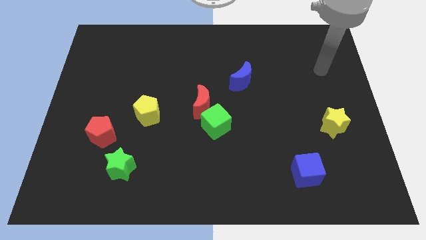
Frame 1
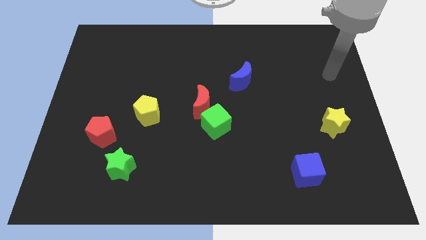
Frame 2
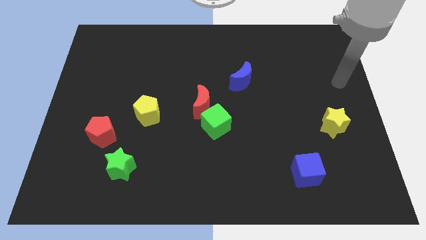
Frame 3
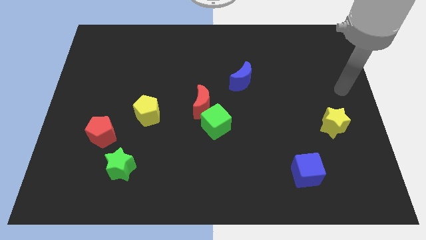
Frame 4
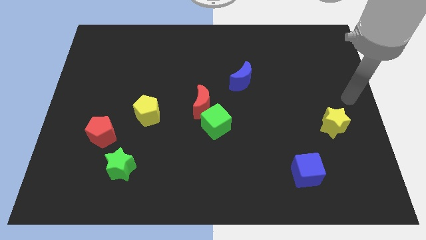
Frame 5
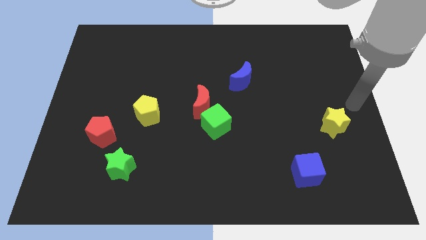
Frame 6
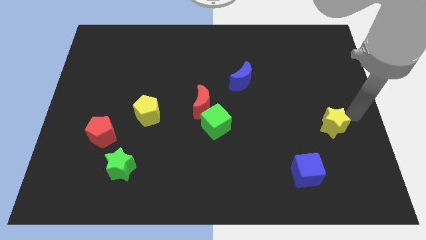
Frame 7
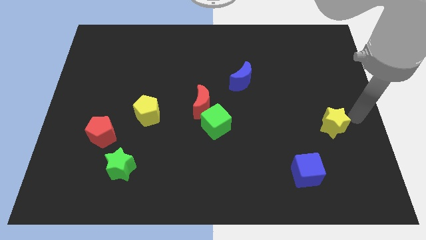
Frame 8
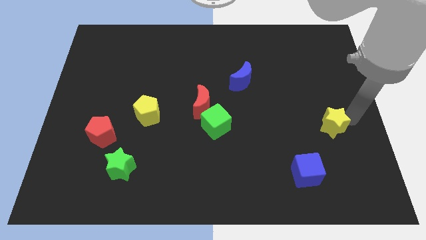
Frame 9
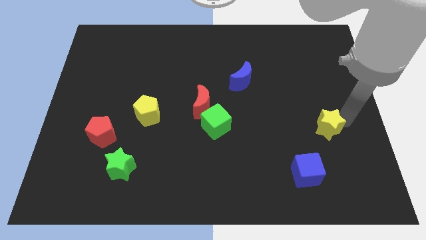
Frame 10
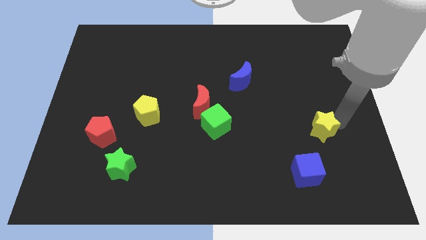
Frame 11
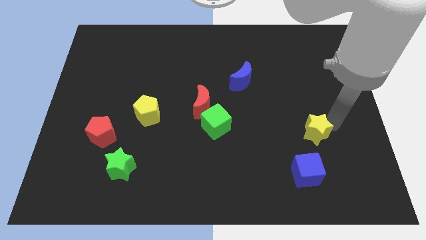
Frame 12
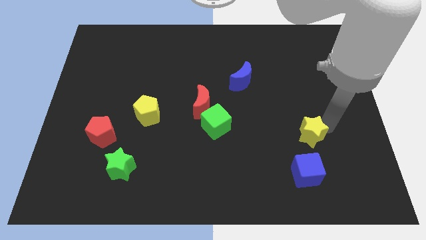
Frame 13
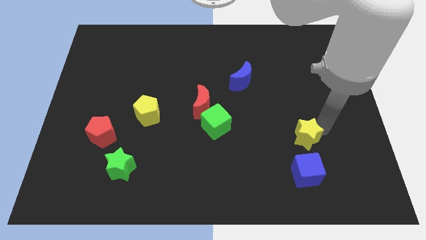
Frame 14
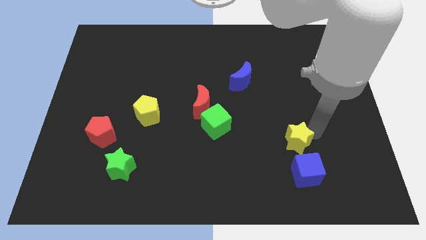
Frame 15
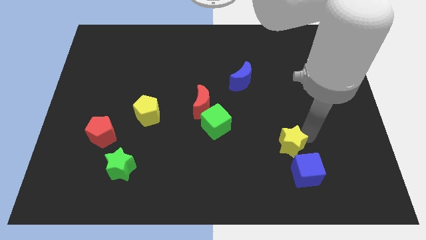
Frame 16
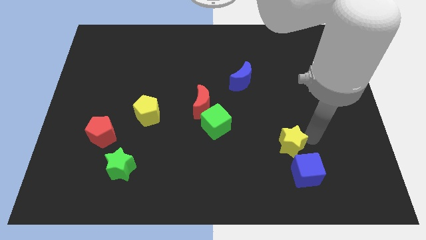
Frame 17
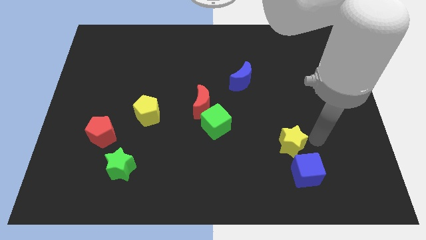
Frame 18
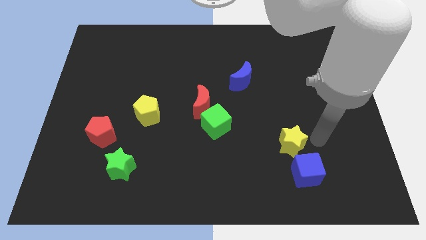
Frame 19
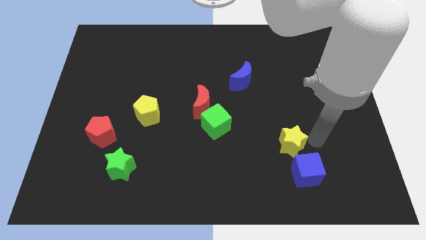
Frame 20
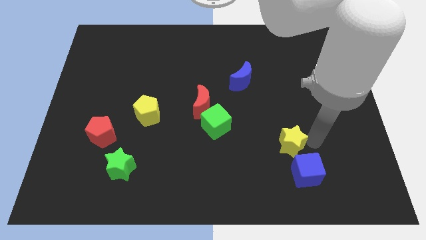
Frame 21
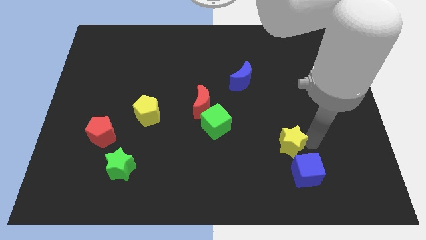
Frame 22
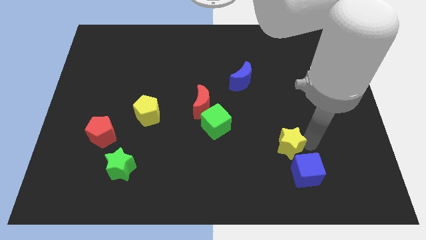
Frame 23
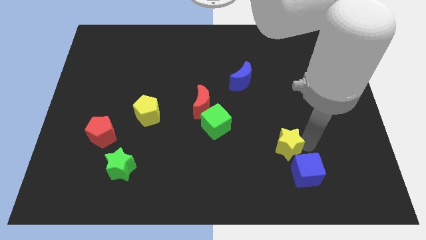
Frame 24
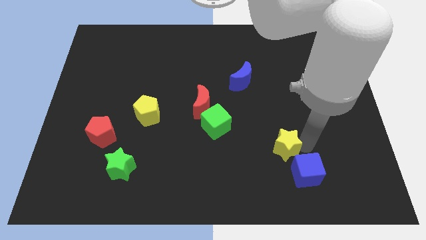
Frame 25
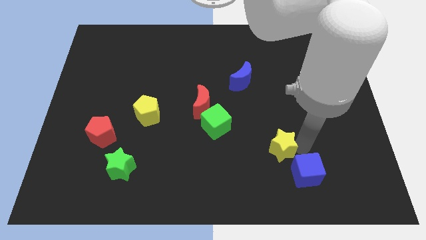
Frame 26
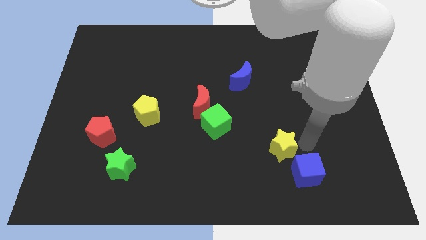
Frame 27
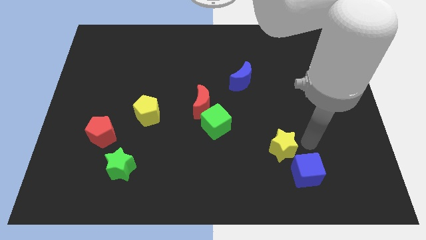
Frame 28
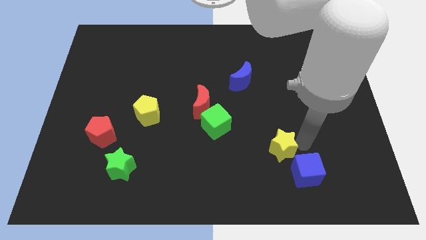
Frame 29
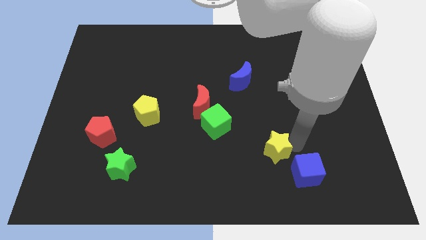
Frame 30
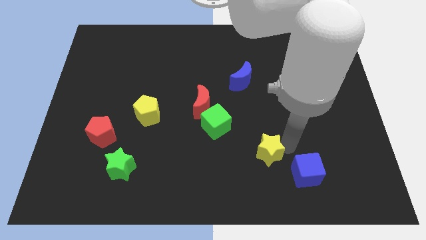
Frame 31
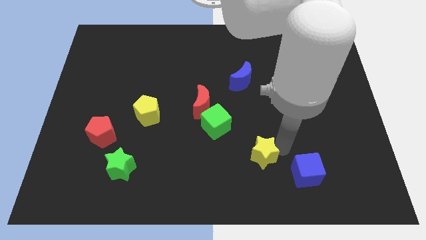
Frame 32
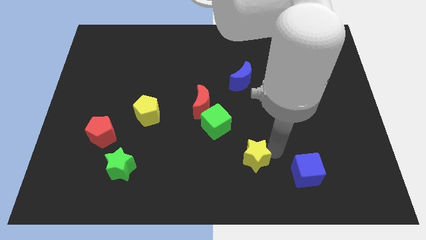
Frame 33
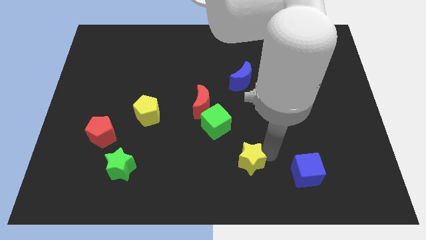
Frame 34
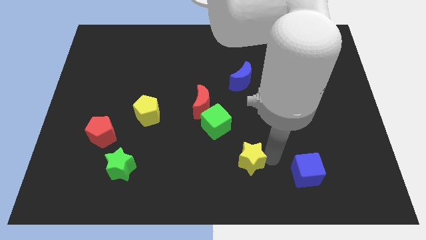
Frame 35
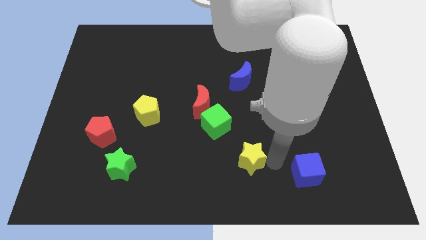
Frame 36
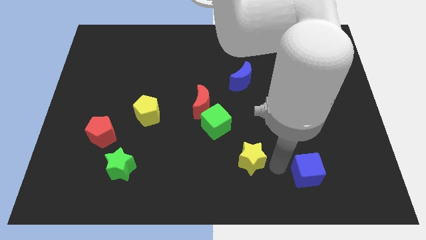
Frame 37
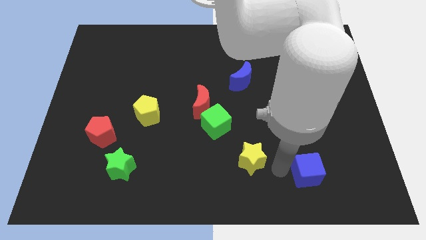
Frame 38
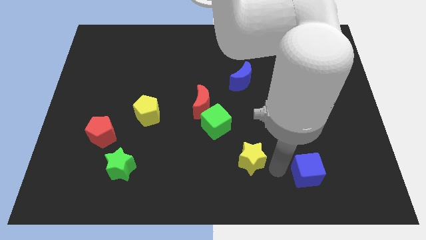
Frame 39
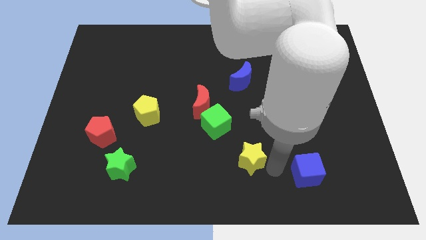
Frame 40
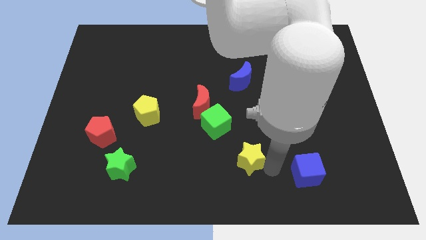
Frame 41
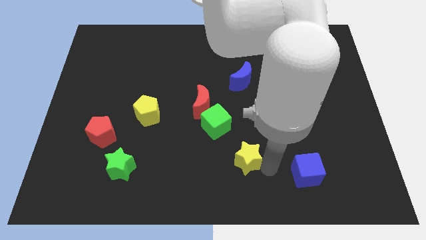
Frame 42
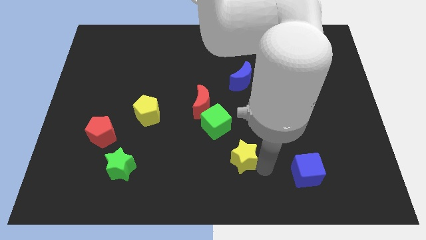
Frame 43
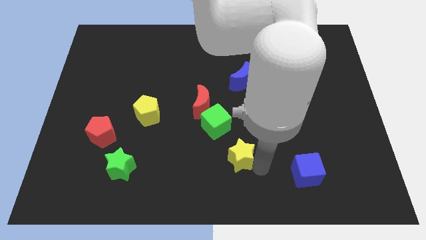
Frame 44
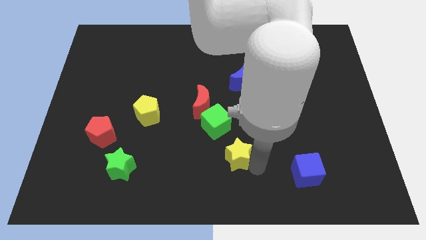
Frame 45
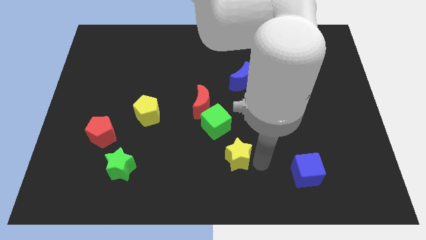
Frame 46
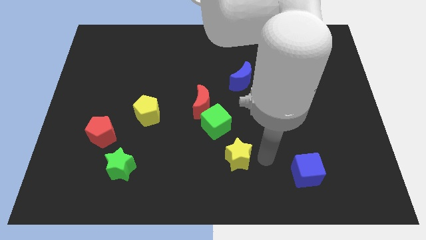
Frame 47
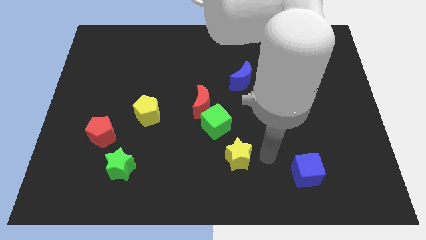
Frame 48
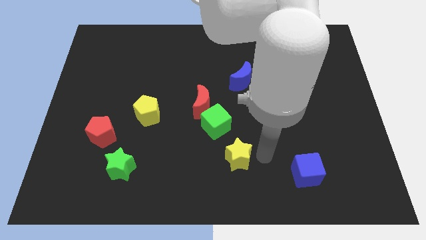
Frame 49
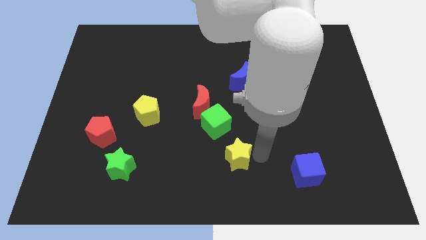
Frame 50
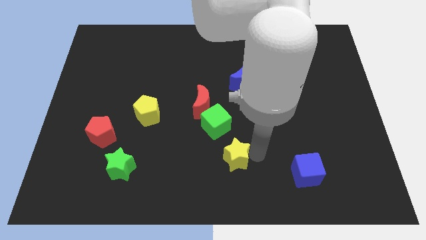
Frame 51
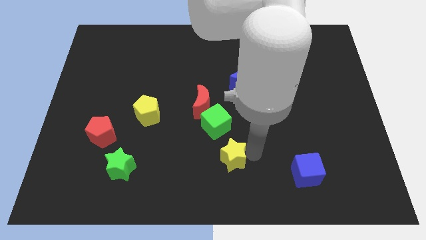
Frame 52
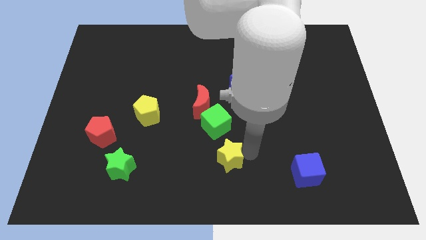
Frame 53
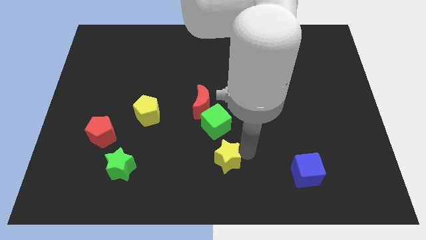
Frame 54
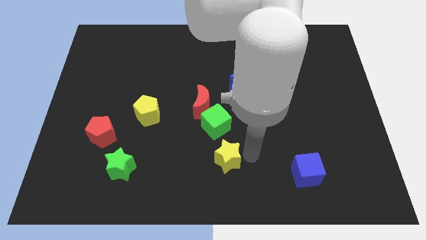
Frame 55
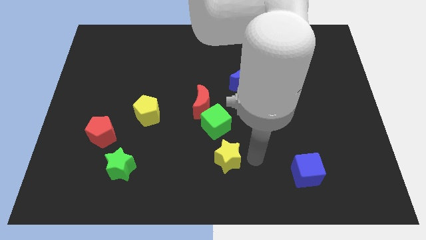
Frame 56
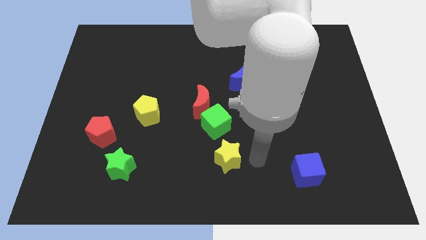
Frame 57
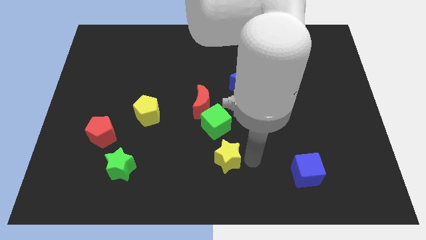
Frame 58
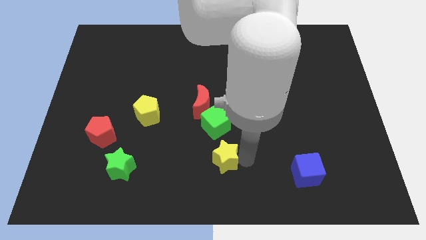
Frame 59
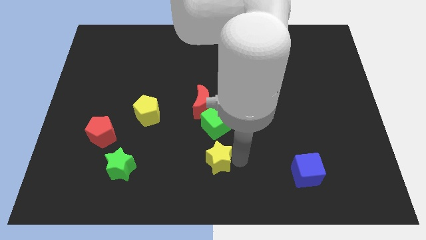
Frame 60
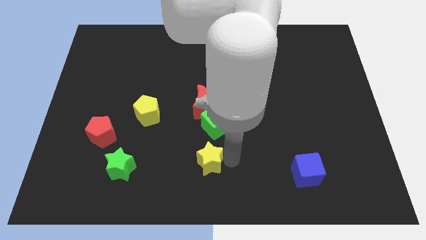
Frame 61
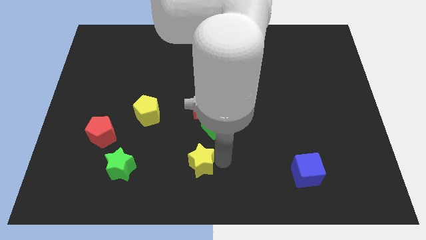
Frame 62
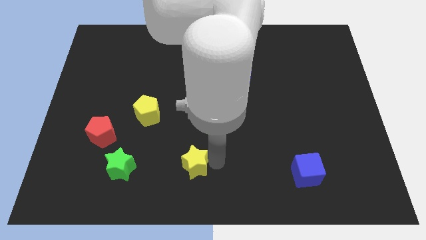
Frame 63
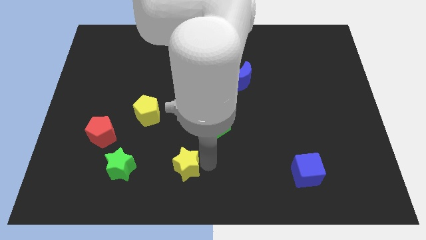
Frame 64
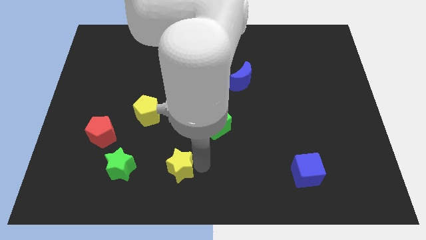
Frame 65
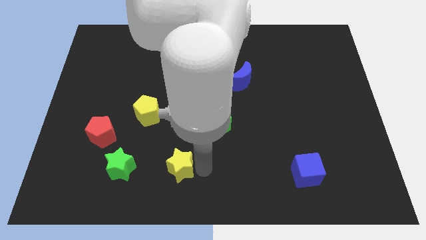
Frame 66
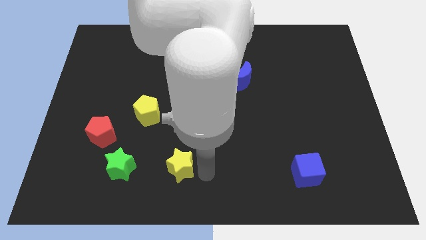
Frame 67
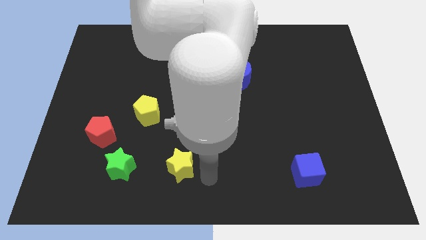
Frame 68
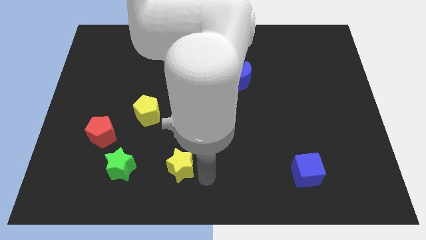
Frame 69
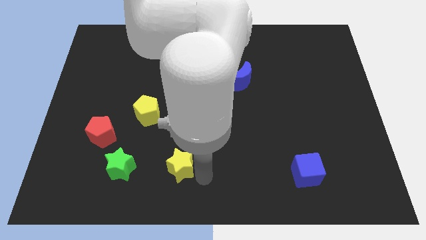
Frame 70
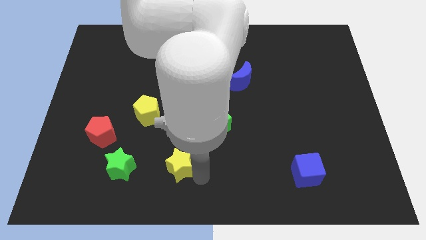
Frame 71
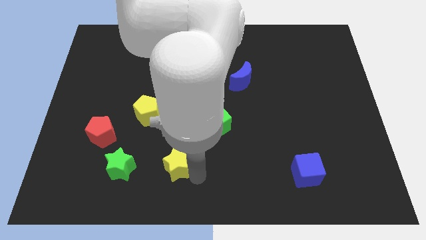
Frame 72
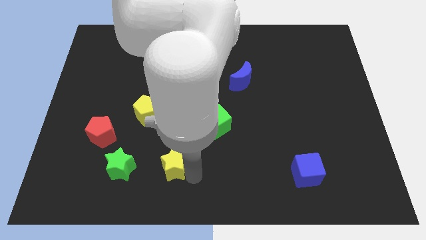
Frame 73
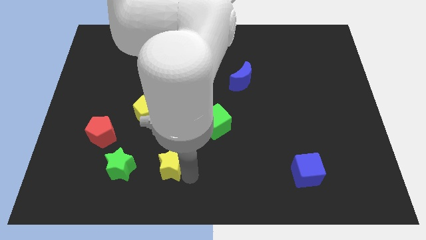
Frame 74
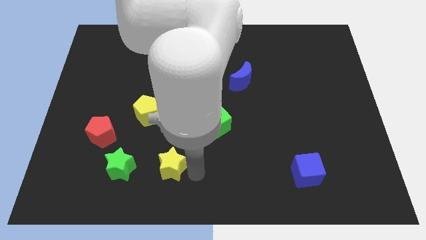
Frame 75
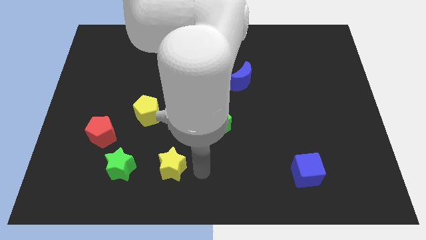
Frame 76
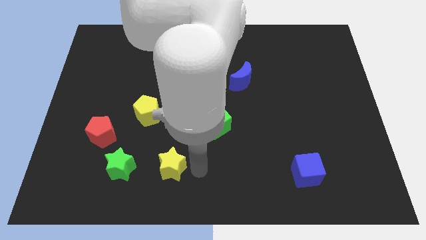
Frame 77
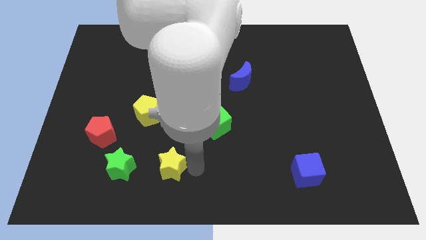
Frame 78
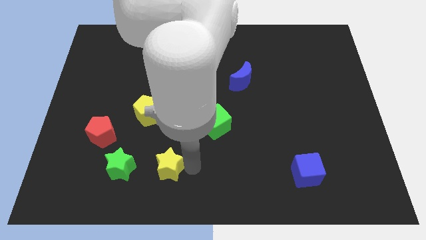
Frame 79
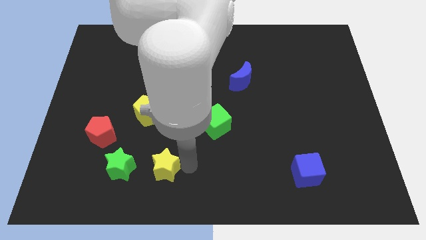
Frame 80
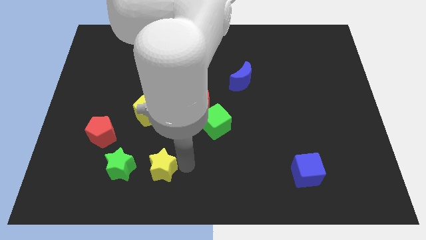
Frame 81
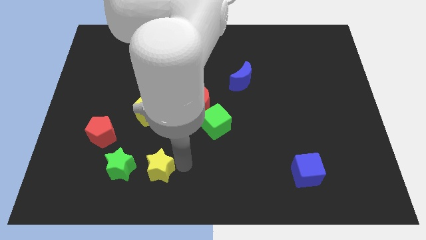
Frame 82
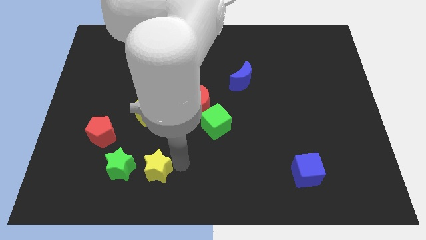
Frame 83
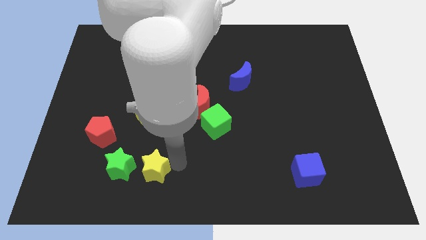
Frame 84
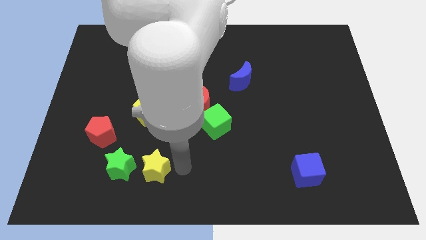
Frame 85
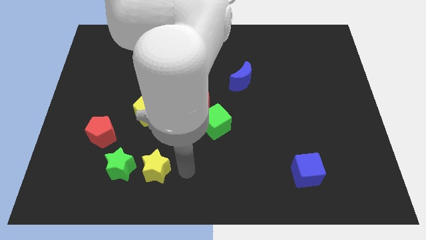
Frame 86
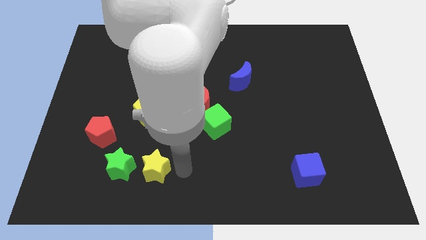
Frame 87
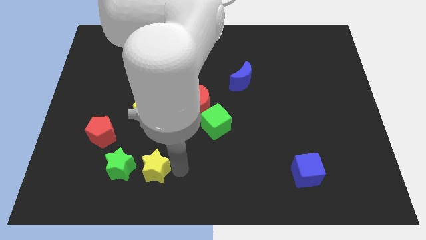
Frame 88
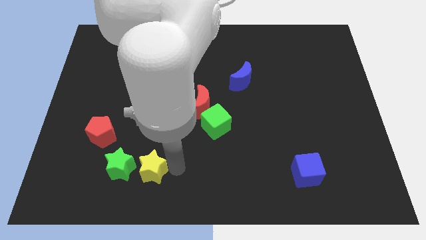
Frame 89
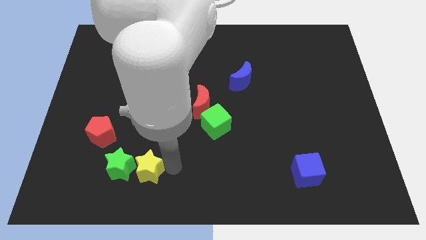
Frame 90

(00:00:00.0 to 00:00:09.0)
put the yellow star to the green star
